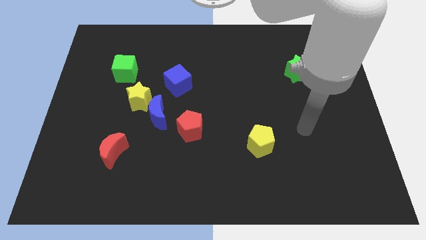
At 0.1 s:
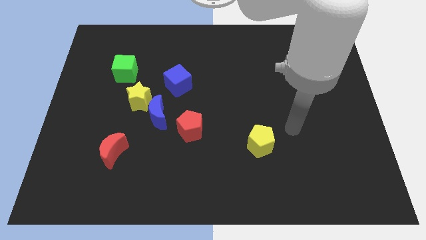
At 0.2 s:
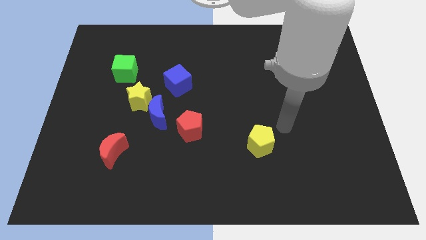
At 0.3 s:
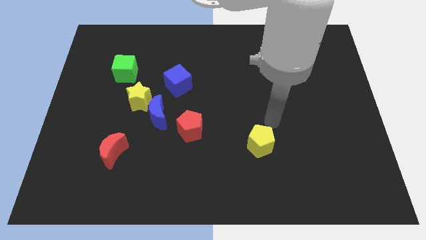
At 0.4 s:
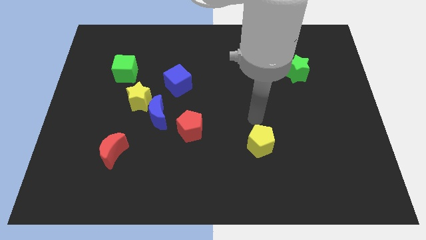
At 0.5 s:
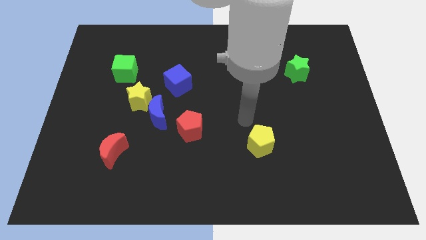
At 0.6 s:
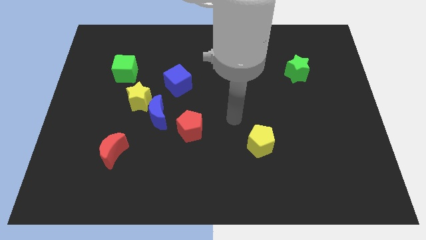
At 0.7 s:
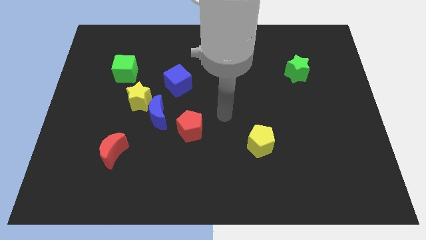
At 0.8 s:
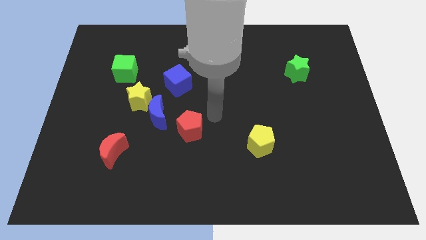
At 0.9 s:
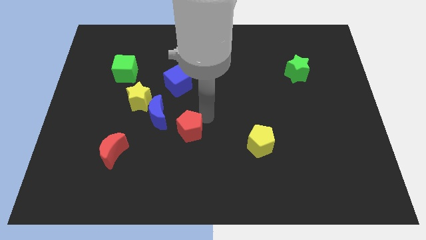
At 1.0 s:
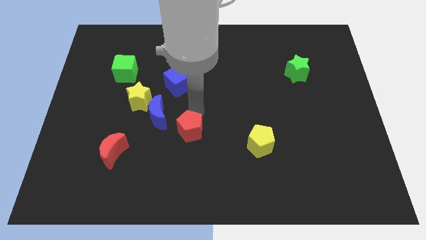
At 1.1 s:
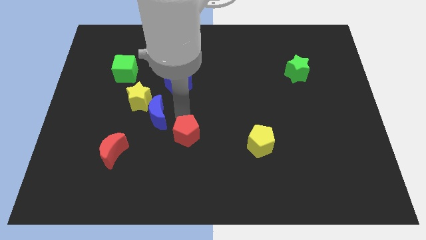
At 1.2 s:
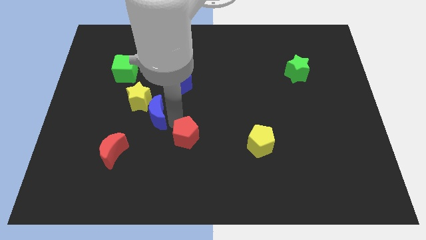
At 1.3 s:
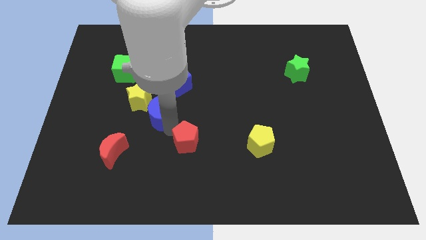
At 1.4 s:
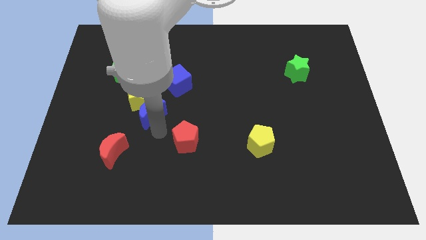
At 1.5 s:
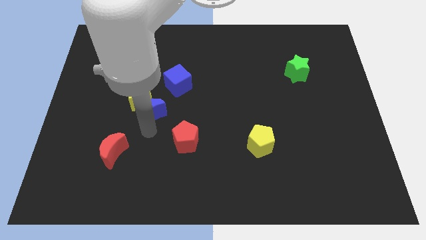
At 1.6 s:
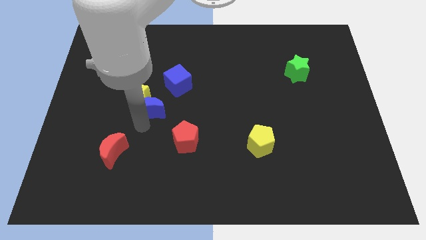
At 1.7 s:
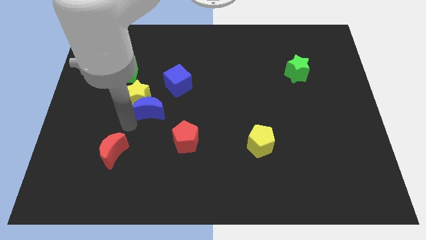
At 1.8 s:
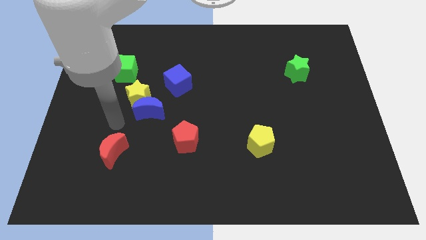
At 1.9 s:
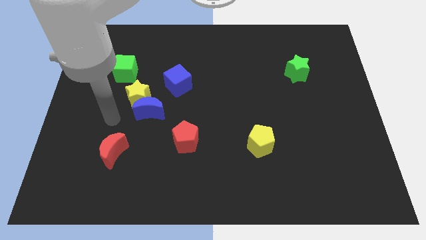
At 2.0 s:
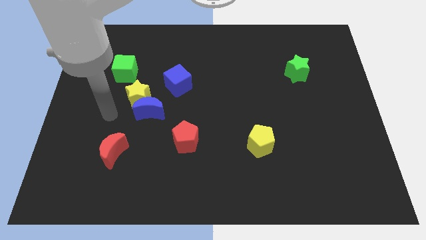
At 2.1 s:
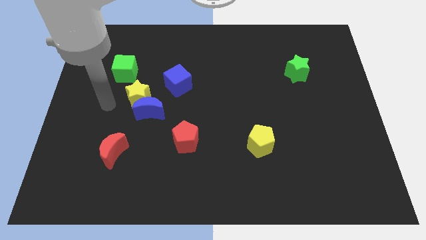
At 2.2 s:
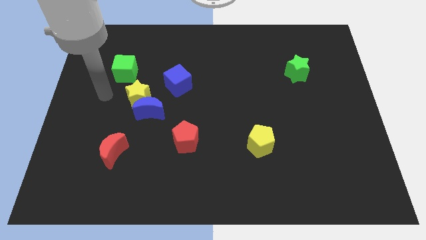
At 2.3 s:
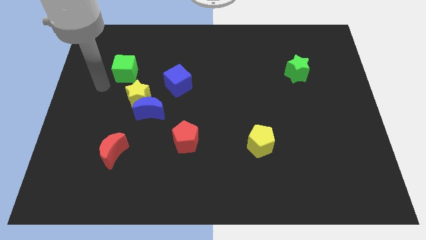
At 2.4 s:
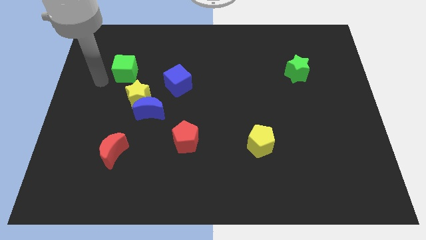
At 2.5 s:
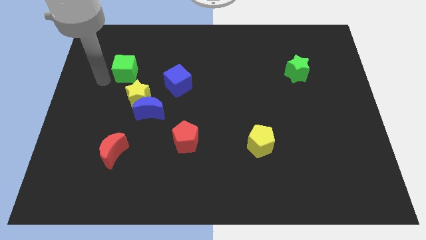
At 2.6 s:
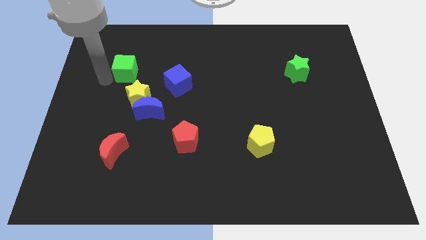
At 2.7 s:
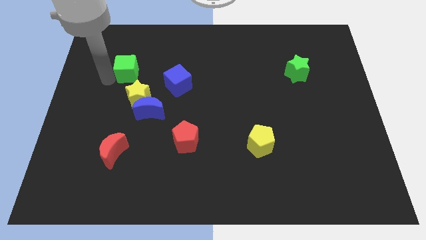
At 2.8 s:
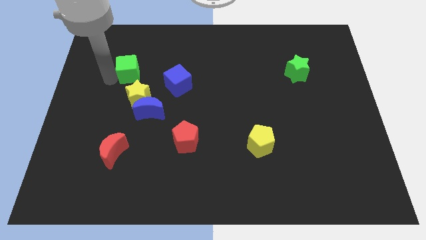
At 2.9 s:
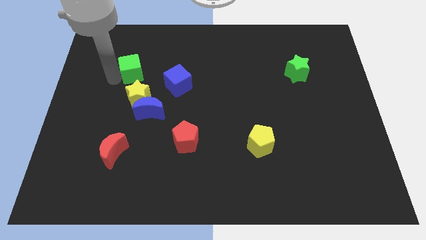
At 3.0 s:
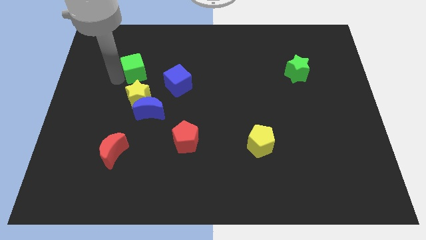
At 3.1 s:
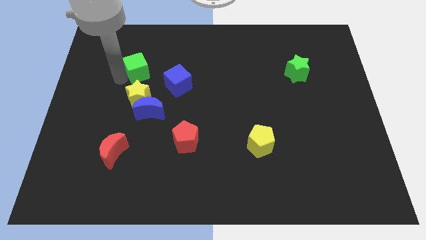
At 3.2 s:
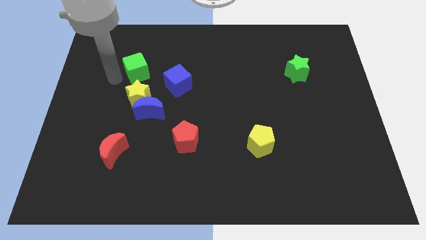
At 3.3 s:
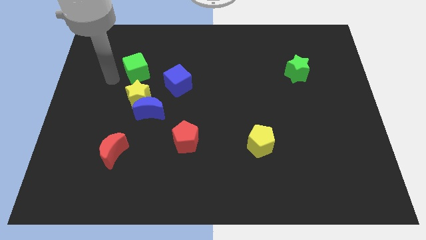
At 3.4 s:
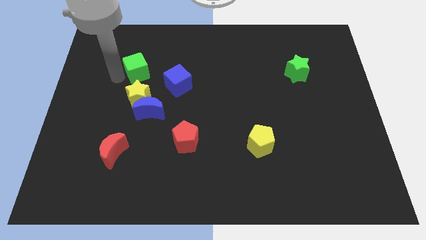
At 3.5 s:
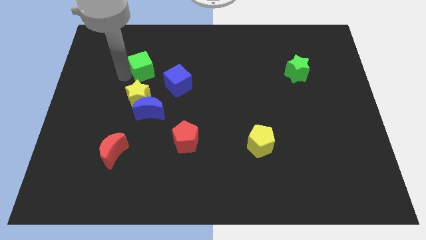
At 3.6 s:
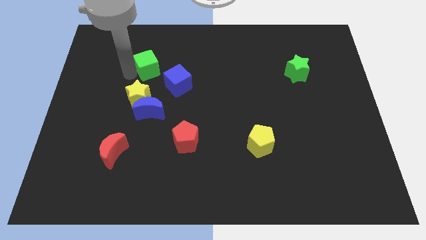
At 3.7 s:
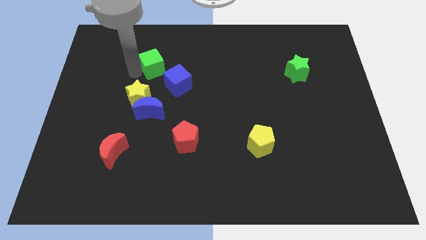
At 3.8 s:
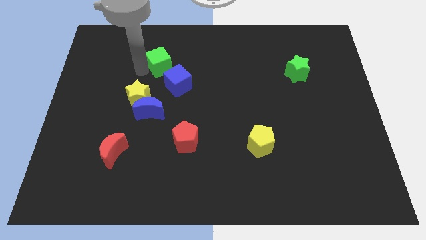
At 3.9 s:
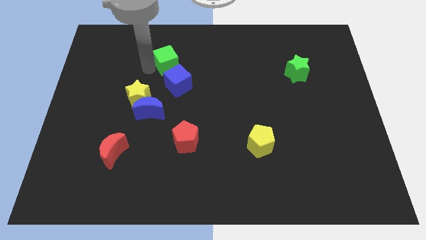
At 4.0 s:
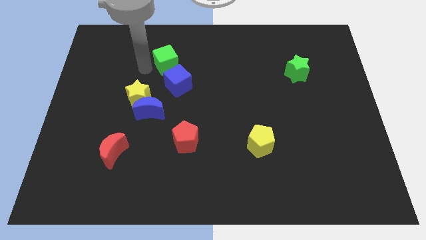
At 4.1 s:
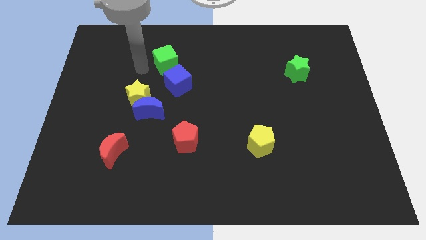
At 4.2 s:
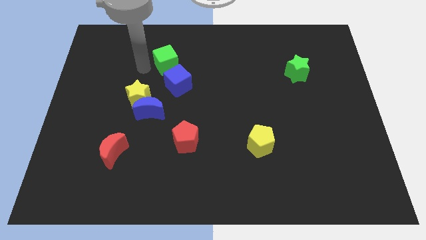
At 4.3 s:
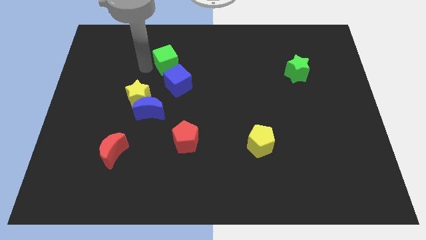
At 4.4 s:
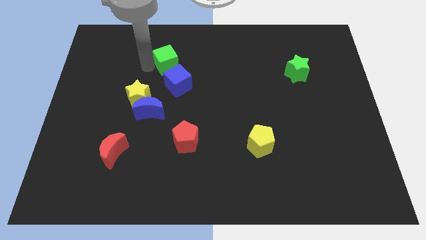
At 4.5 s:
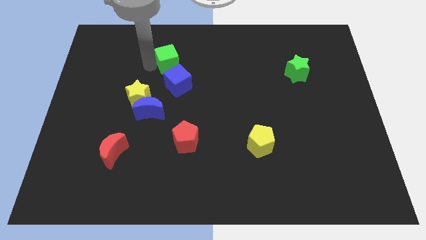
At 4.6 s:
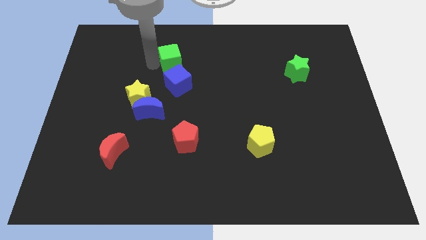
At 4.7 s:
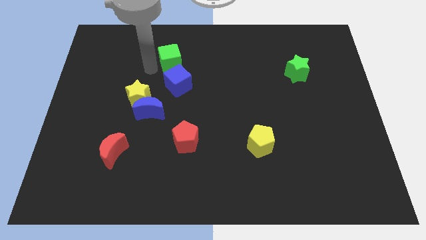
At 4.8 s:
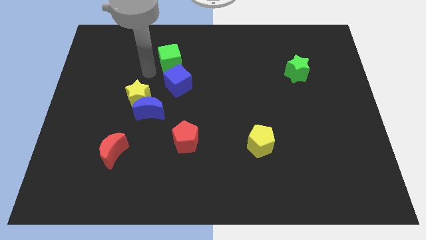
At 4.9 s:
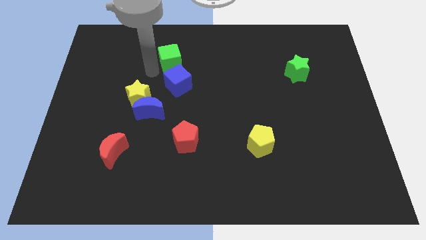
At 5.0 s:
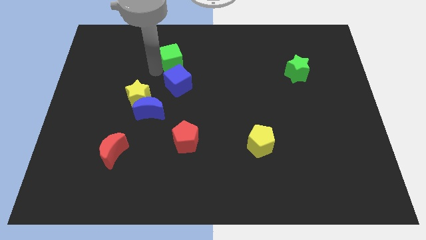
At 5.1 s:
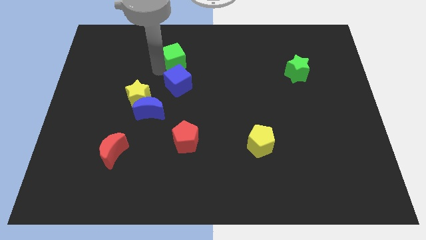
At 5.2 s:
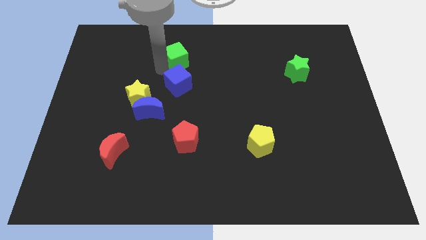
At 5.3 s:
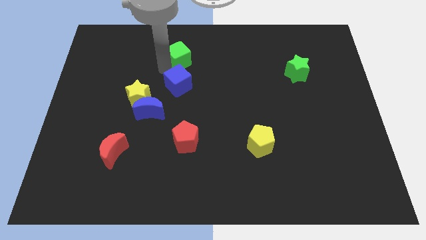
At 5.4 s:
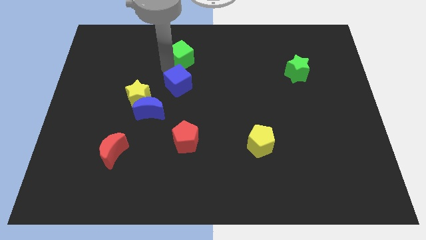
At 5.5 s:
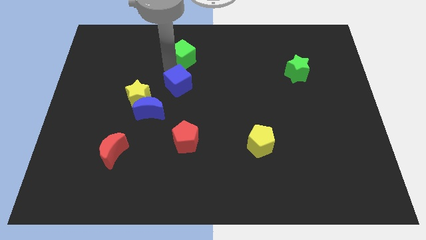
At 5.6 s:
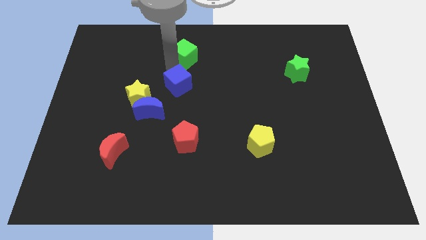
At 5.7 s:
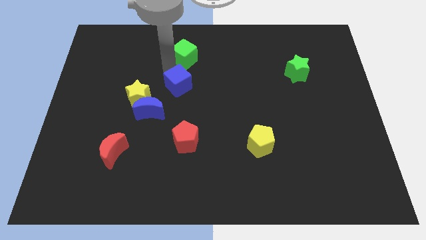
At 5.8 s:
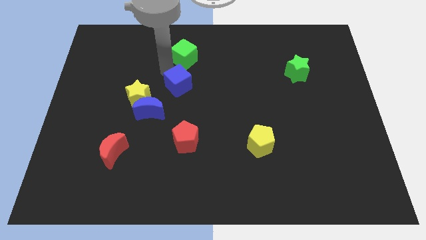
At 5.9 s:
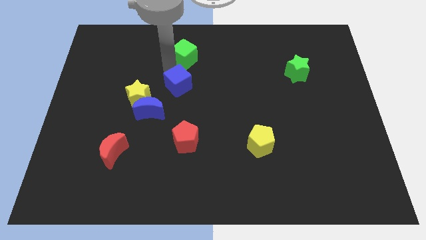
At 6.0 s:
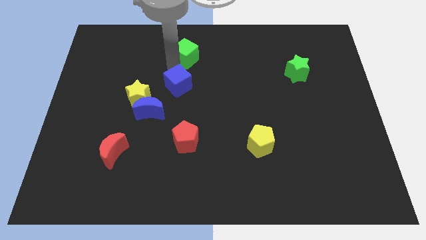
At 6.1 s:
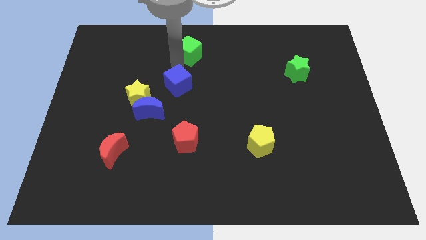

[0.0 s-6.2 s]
put the green cube to the top
